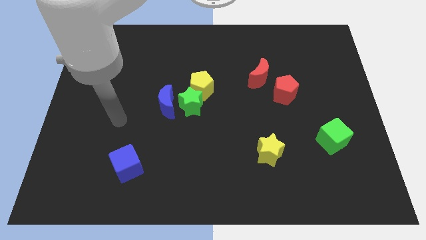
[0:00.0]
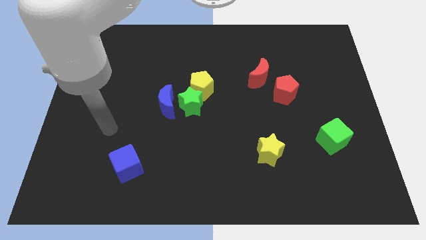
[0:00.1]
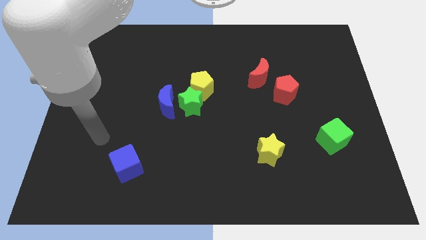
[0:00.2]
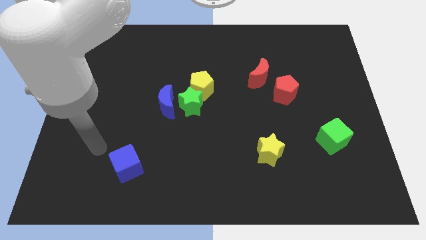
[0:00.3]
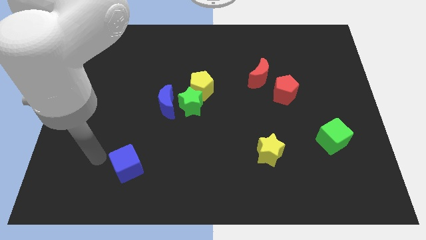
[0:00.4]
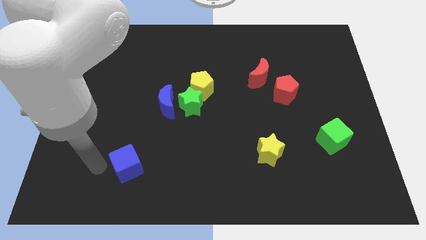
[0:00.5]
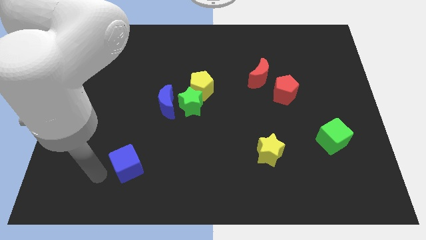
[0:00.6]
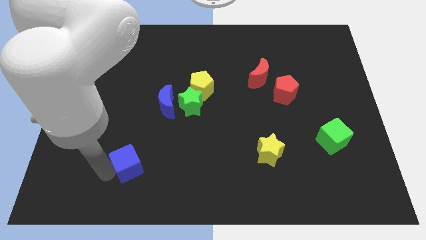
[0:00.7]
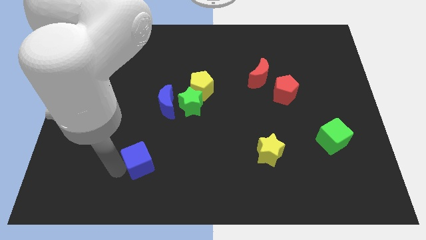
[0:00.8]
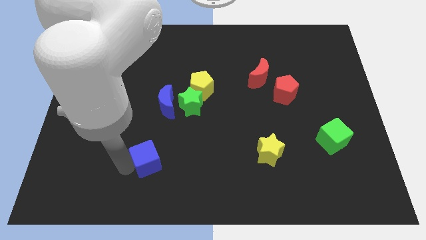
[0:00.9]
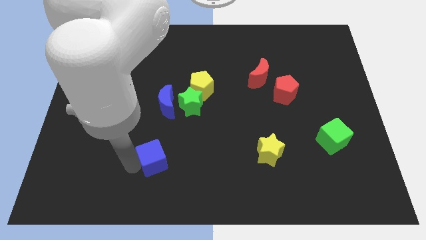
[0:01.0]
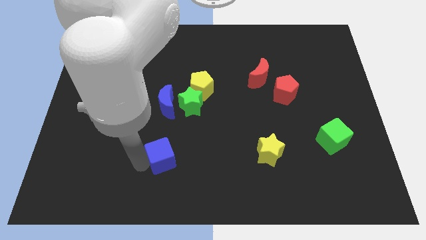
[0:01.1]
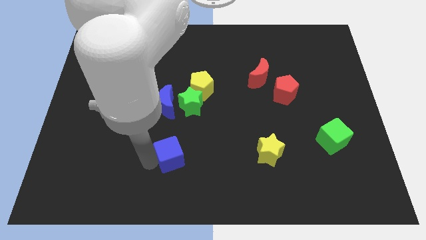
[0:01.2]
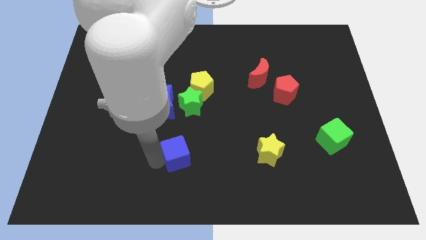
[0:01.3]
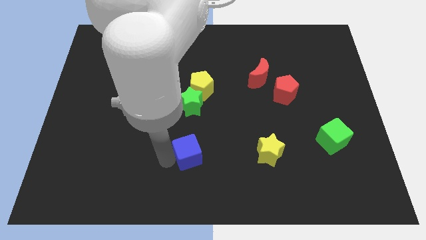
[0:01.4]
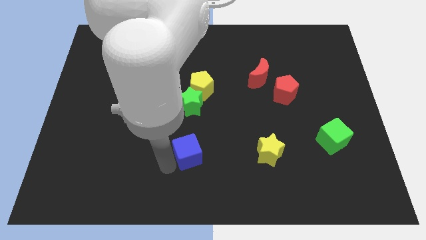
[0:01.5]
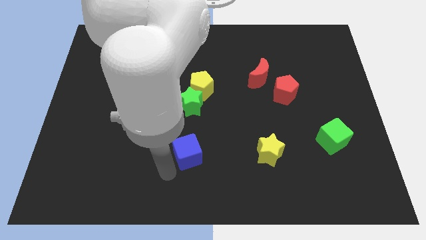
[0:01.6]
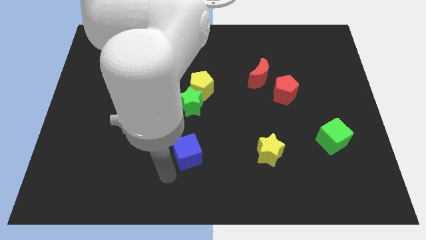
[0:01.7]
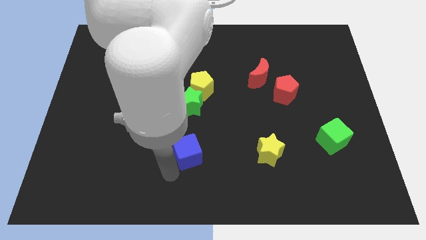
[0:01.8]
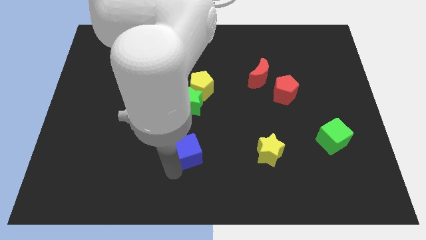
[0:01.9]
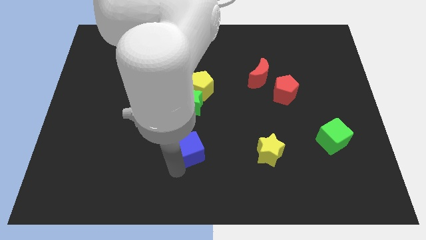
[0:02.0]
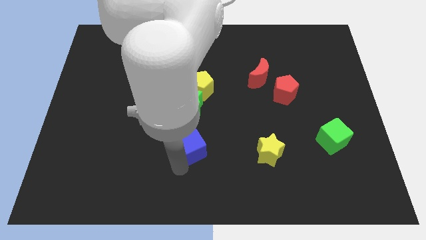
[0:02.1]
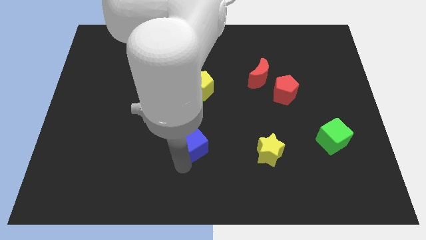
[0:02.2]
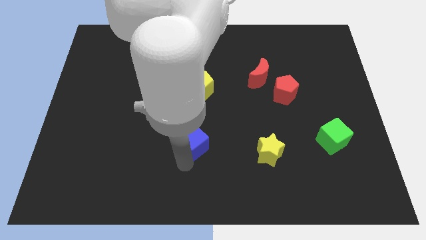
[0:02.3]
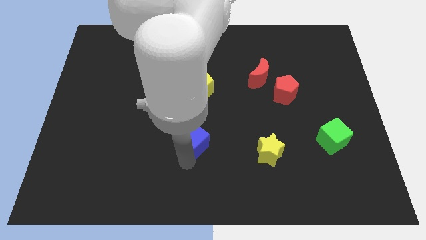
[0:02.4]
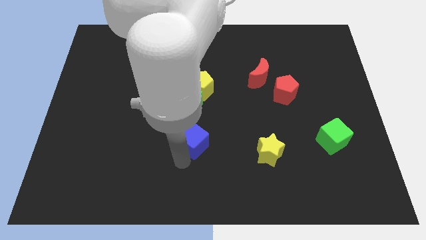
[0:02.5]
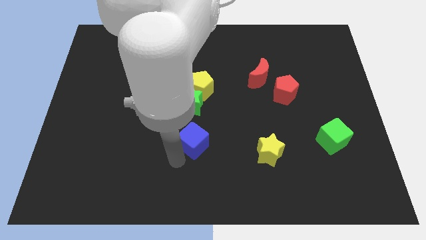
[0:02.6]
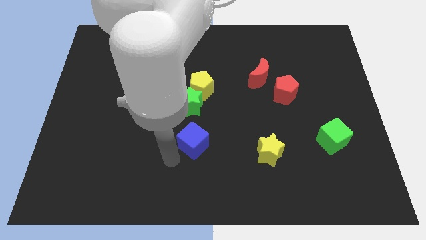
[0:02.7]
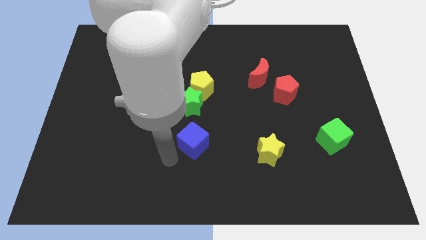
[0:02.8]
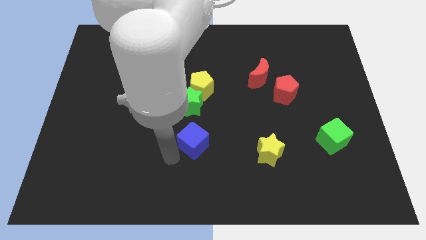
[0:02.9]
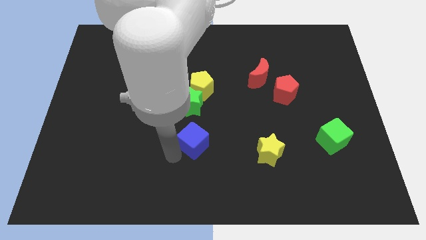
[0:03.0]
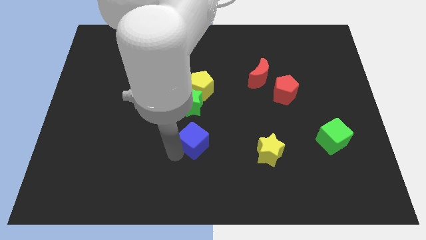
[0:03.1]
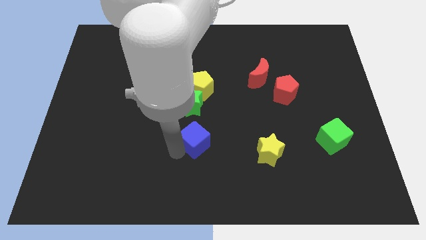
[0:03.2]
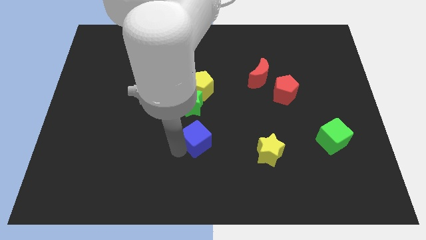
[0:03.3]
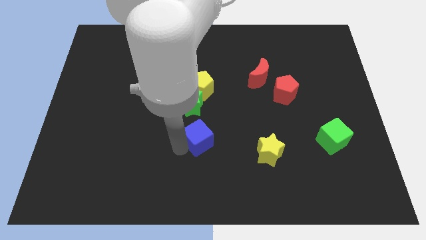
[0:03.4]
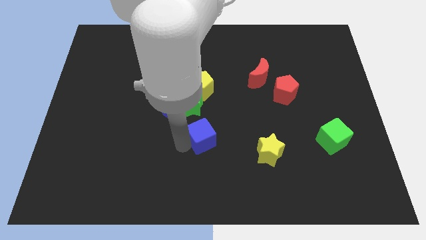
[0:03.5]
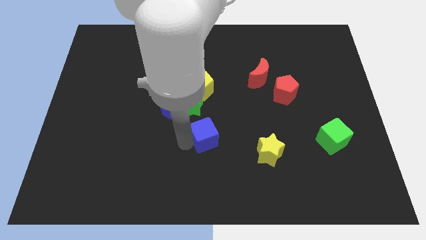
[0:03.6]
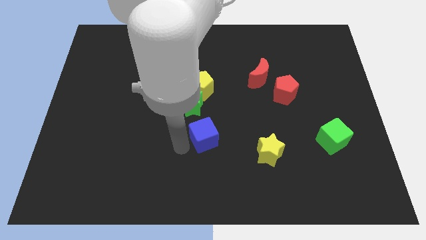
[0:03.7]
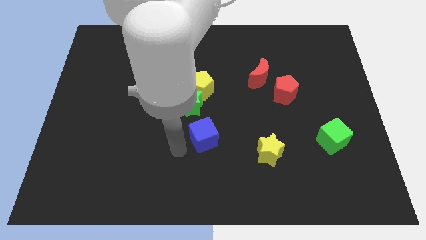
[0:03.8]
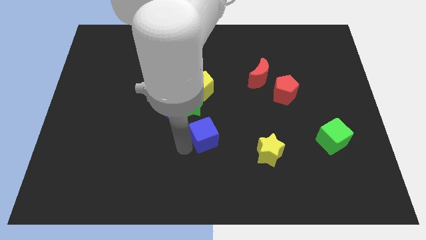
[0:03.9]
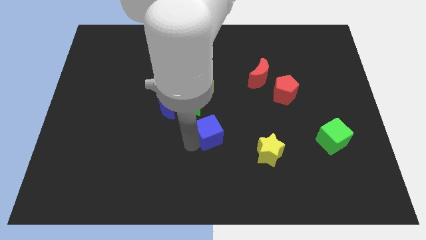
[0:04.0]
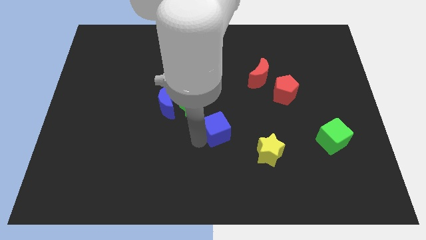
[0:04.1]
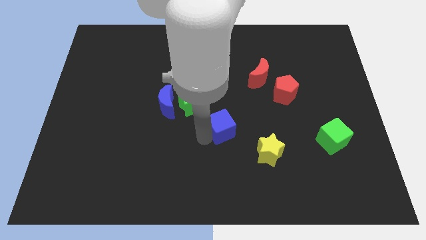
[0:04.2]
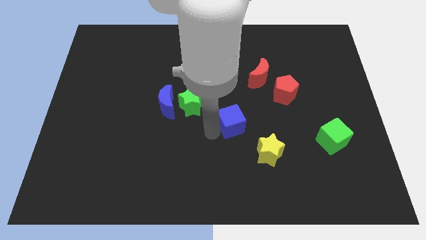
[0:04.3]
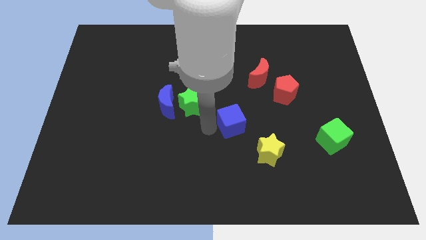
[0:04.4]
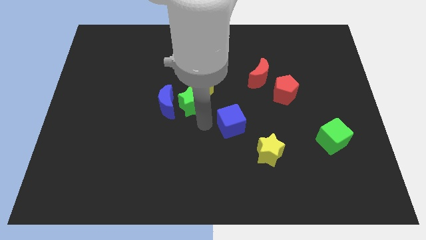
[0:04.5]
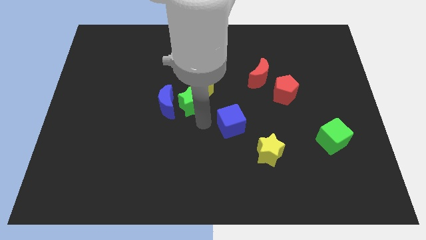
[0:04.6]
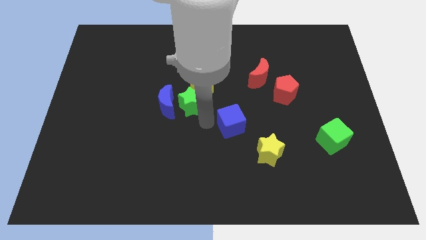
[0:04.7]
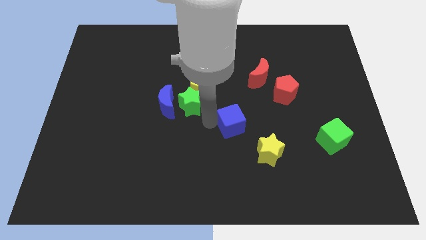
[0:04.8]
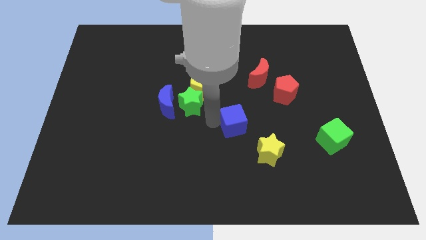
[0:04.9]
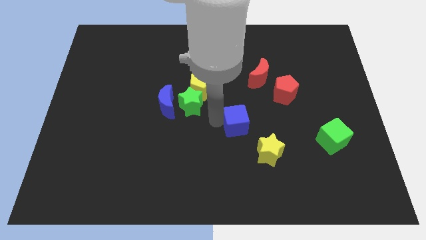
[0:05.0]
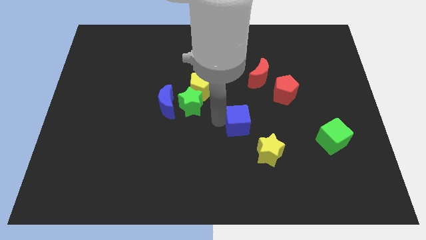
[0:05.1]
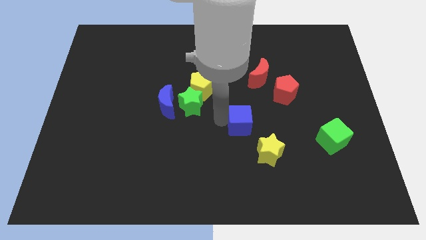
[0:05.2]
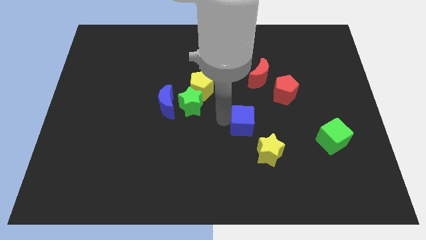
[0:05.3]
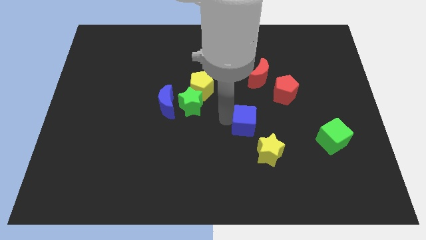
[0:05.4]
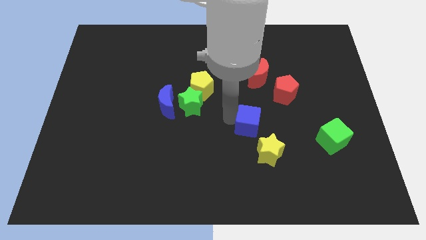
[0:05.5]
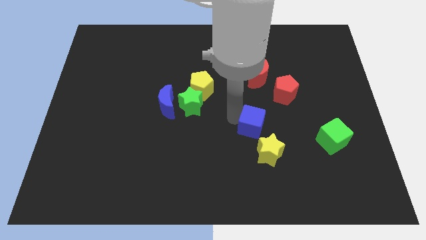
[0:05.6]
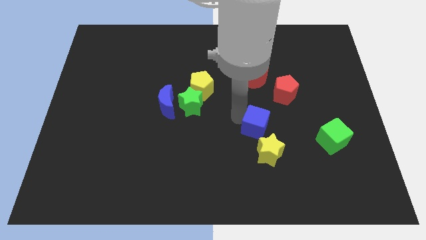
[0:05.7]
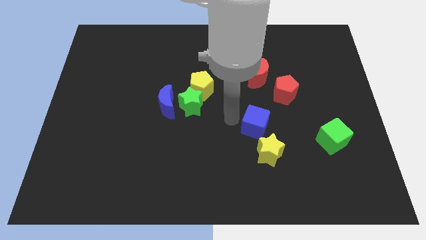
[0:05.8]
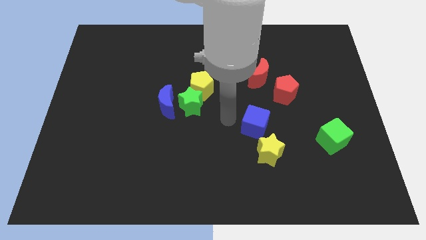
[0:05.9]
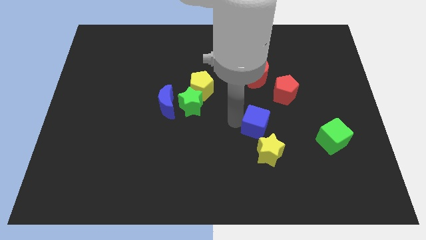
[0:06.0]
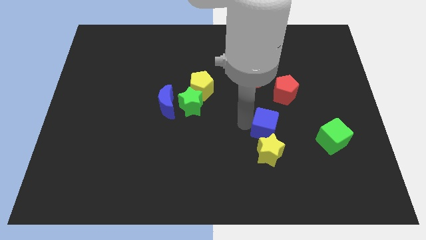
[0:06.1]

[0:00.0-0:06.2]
push the blue cube to the top right side of the yellow star

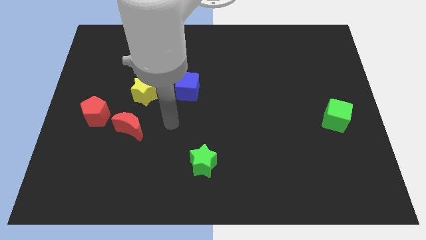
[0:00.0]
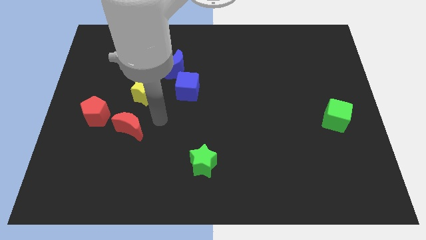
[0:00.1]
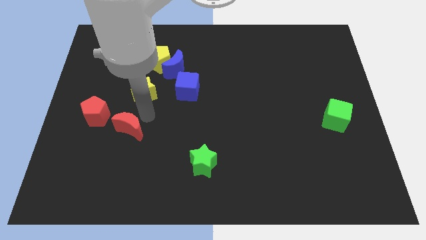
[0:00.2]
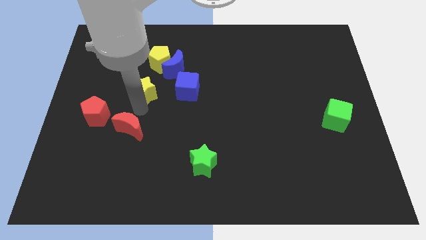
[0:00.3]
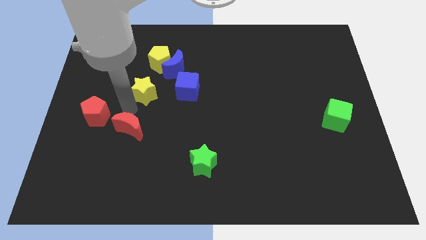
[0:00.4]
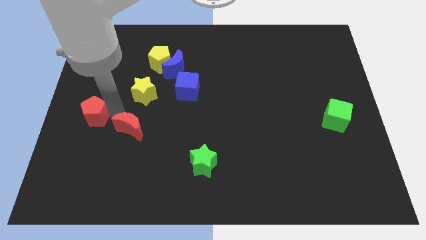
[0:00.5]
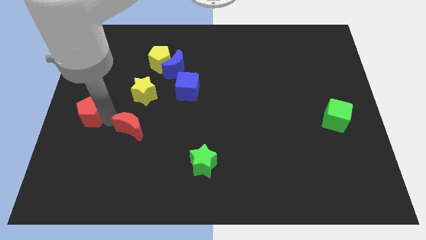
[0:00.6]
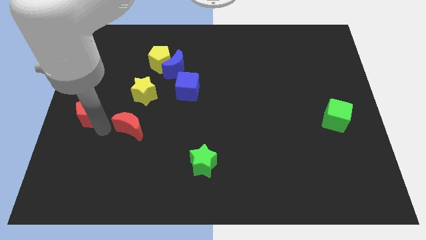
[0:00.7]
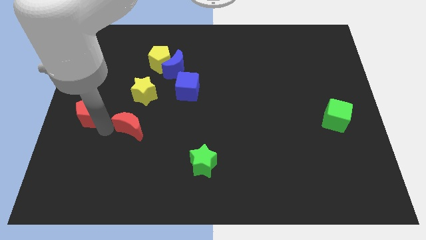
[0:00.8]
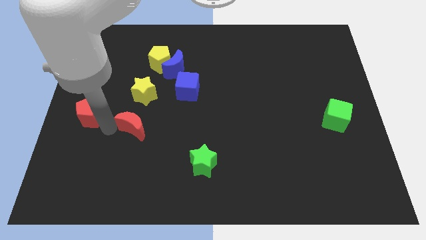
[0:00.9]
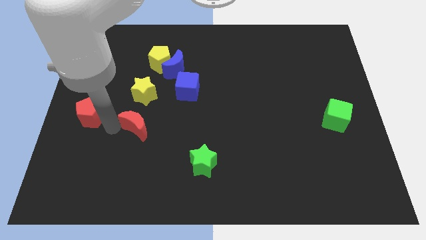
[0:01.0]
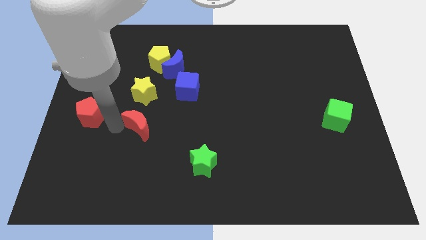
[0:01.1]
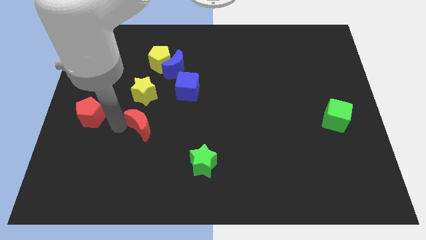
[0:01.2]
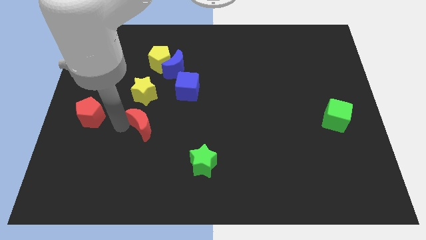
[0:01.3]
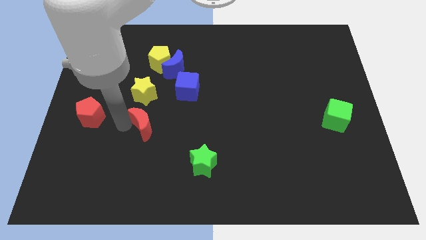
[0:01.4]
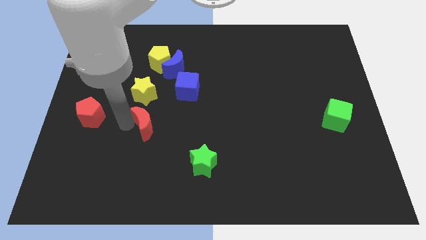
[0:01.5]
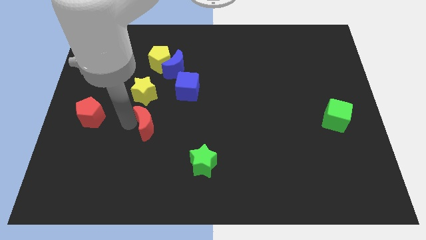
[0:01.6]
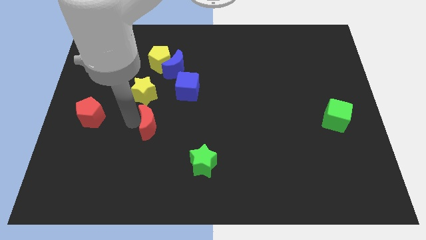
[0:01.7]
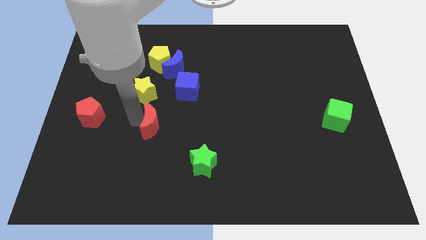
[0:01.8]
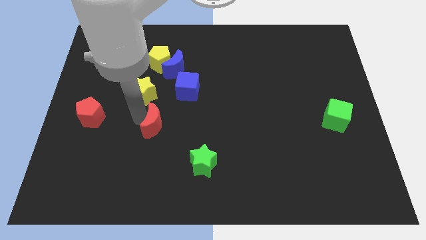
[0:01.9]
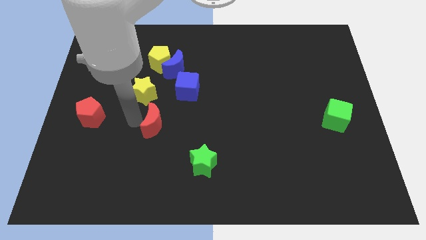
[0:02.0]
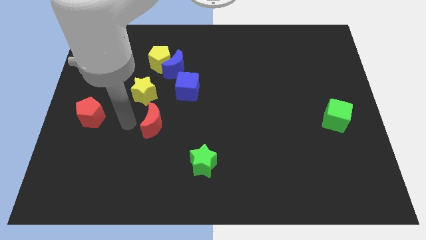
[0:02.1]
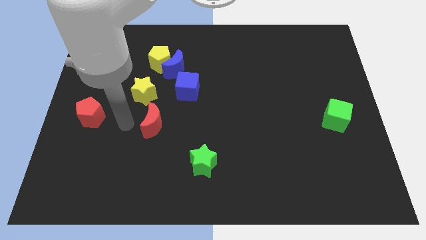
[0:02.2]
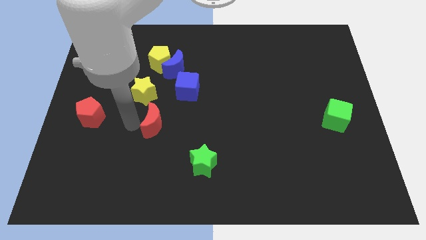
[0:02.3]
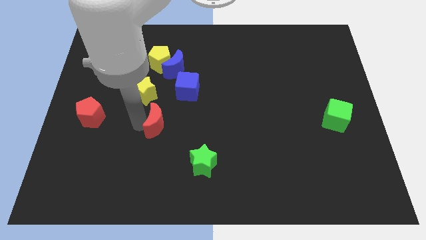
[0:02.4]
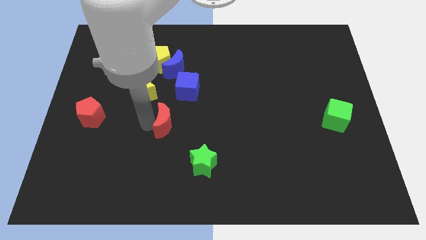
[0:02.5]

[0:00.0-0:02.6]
push the red moon below the blue cube
